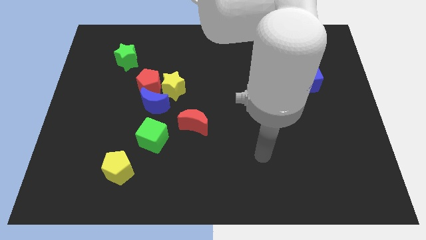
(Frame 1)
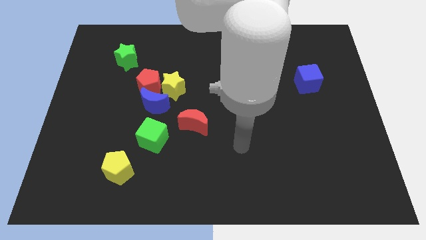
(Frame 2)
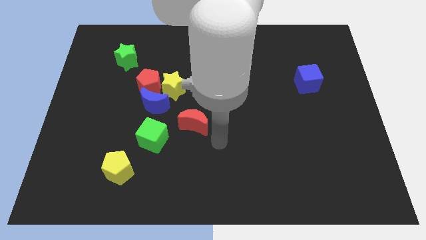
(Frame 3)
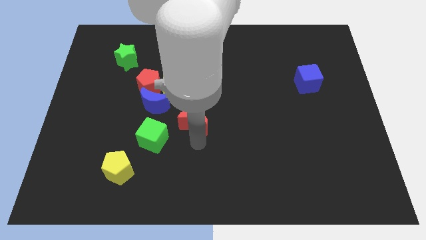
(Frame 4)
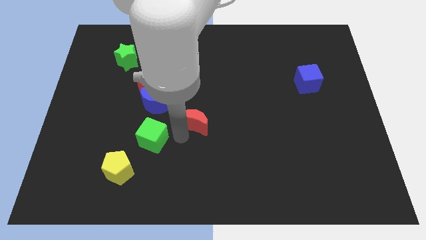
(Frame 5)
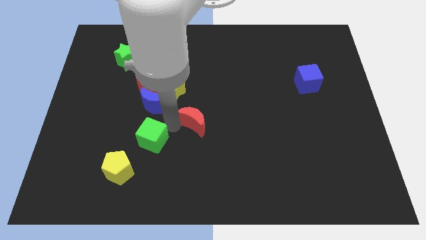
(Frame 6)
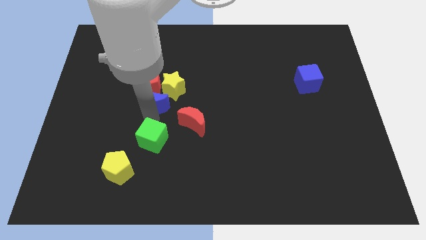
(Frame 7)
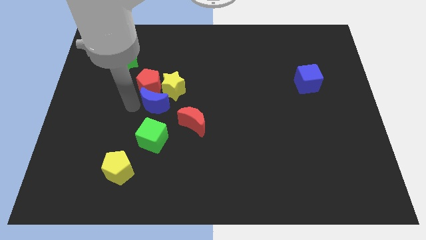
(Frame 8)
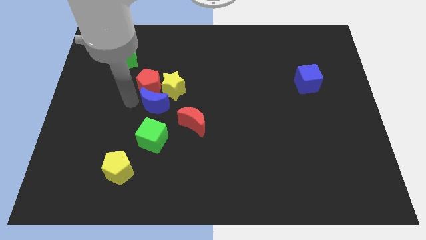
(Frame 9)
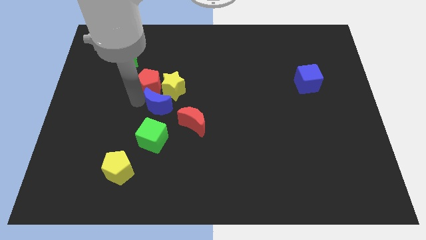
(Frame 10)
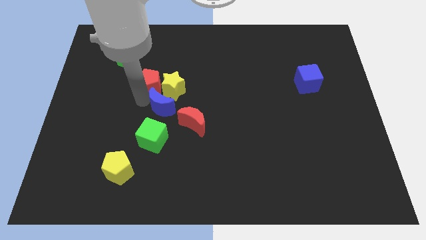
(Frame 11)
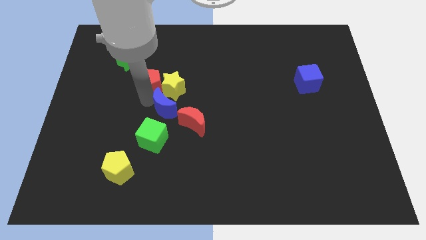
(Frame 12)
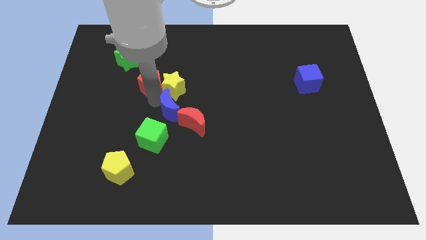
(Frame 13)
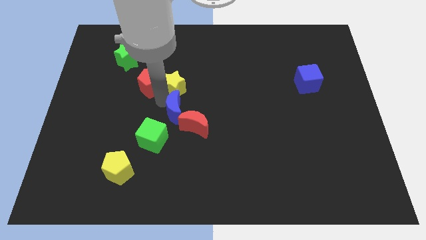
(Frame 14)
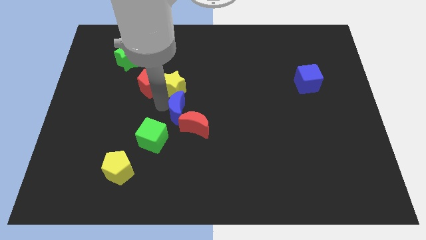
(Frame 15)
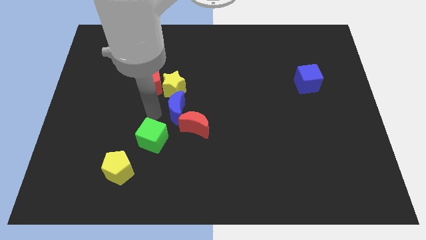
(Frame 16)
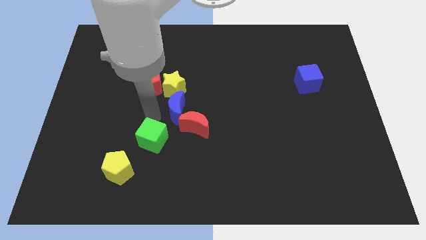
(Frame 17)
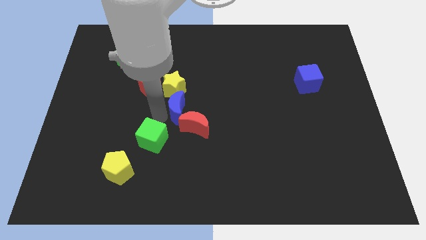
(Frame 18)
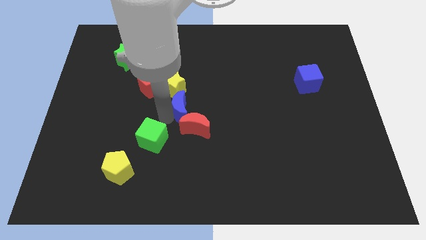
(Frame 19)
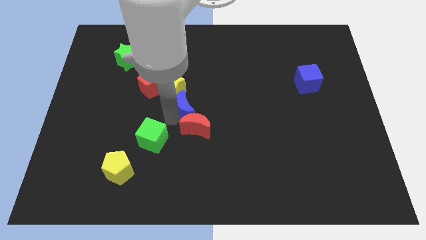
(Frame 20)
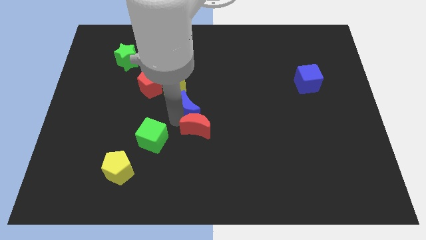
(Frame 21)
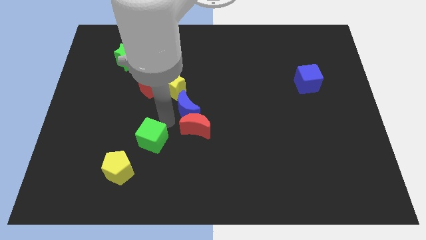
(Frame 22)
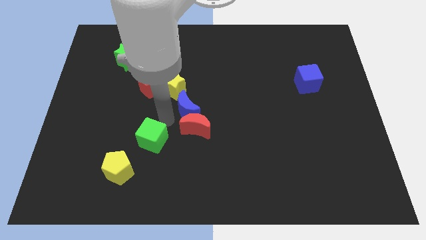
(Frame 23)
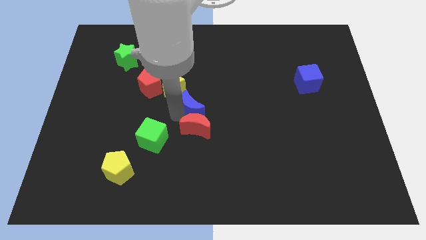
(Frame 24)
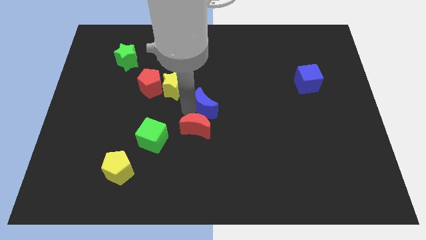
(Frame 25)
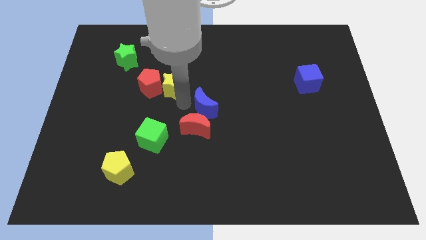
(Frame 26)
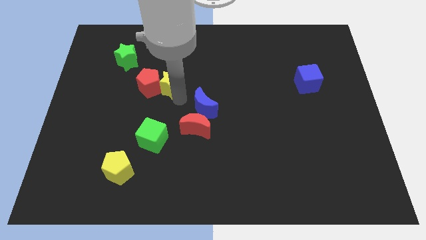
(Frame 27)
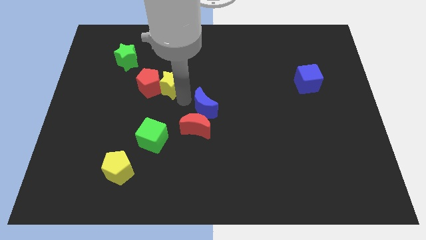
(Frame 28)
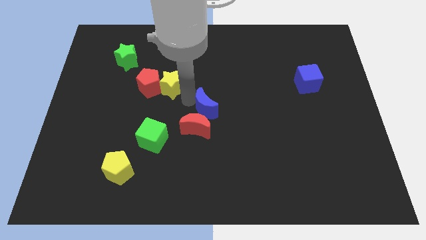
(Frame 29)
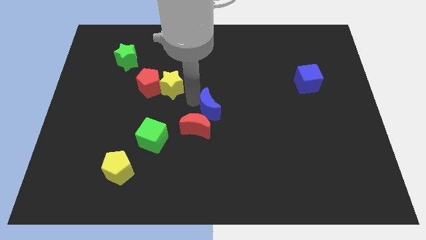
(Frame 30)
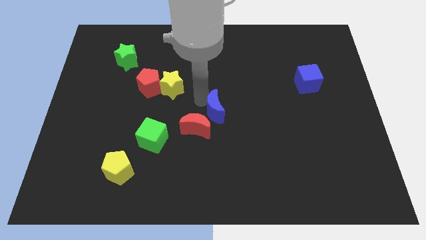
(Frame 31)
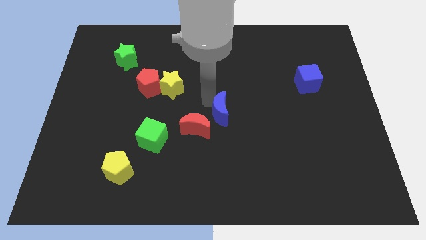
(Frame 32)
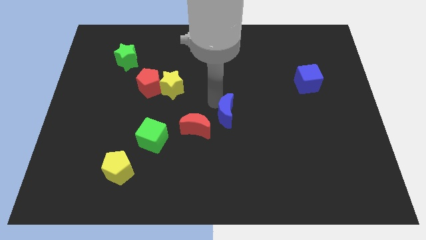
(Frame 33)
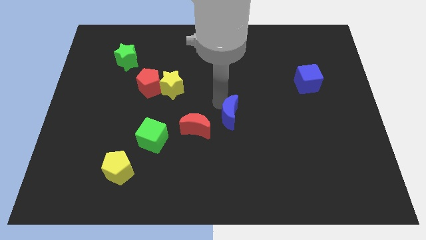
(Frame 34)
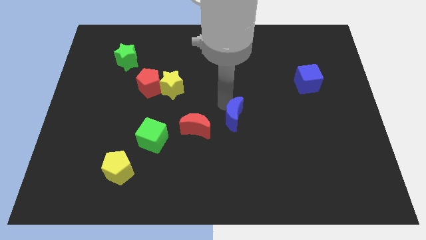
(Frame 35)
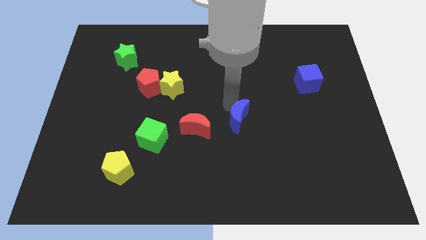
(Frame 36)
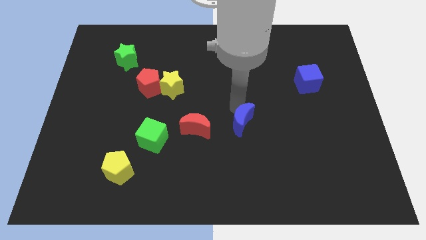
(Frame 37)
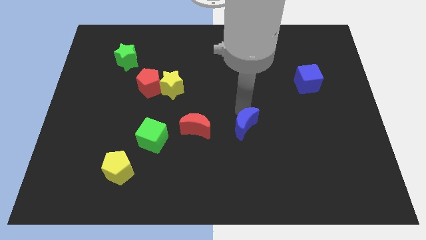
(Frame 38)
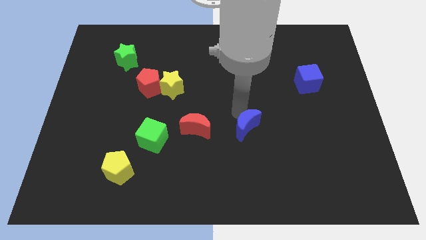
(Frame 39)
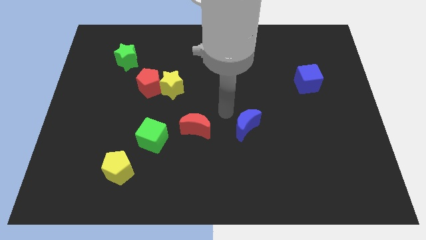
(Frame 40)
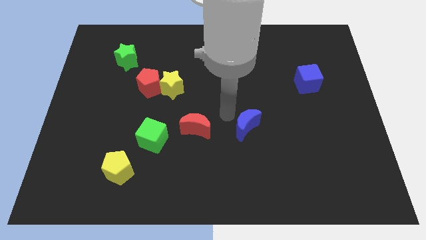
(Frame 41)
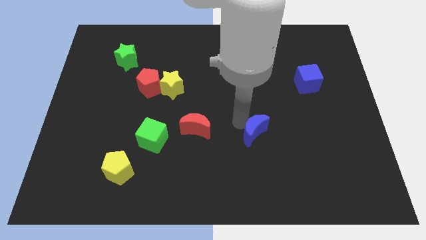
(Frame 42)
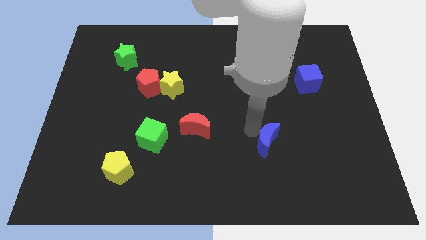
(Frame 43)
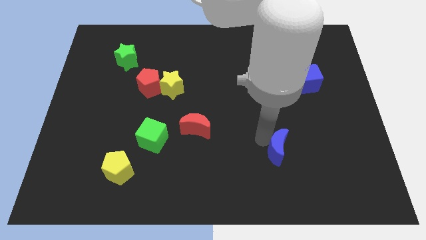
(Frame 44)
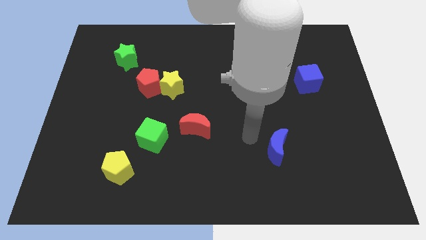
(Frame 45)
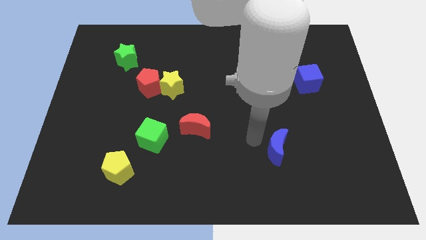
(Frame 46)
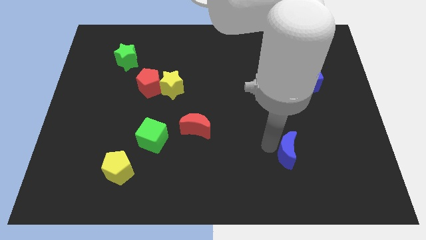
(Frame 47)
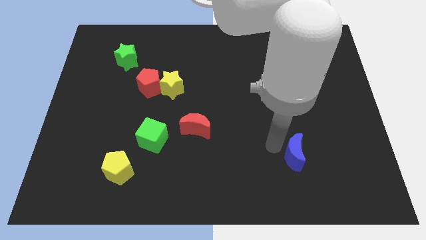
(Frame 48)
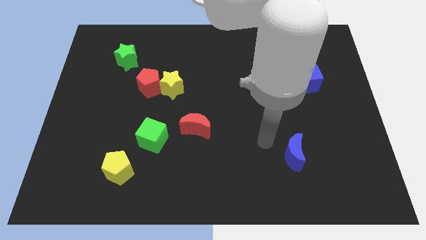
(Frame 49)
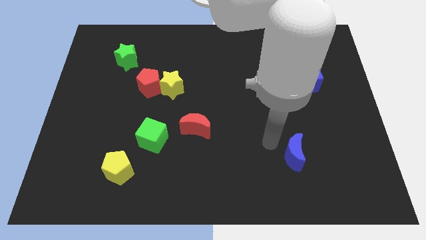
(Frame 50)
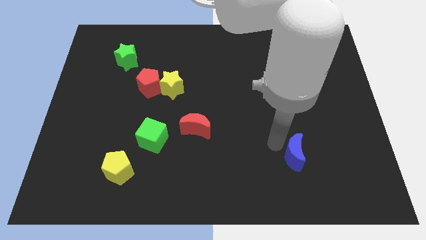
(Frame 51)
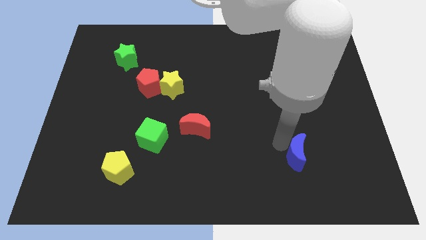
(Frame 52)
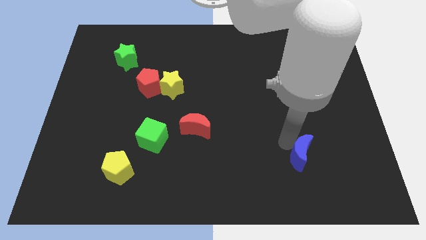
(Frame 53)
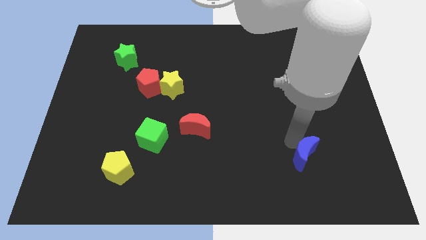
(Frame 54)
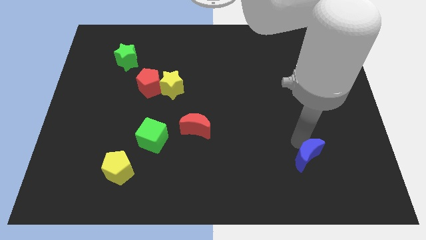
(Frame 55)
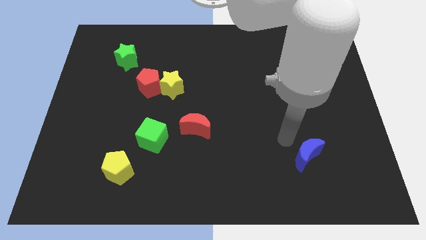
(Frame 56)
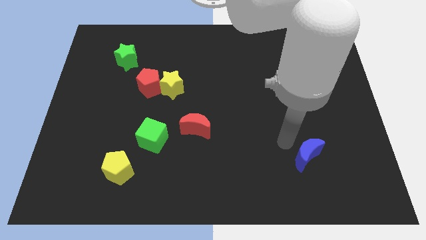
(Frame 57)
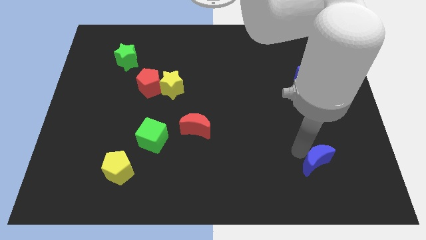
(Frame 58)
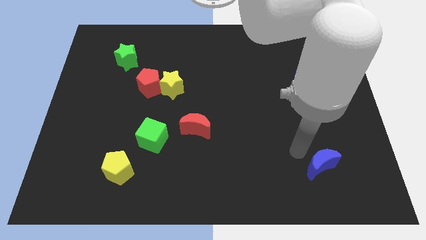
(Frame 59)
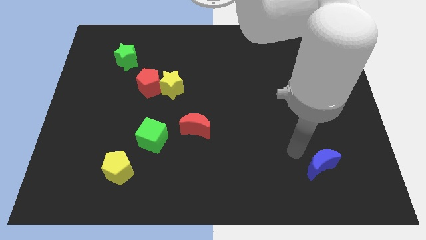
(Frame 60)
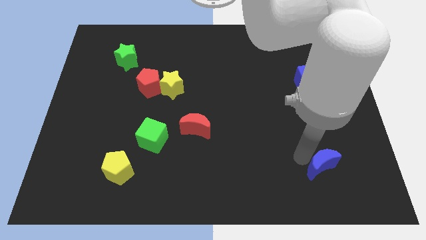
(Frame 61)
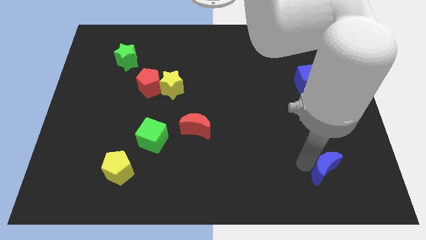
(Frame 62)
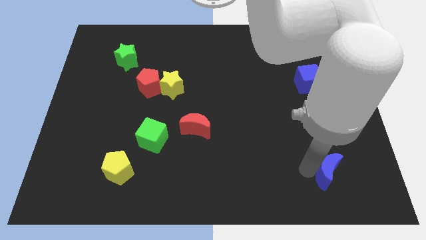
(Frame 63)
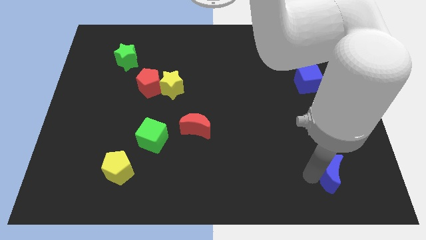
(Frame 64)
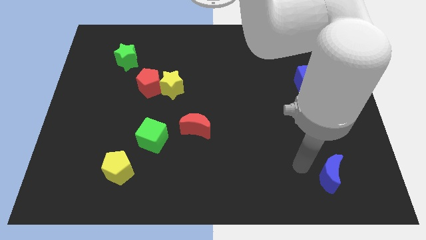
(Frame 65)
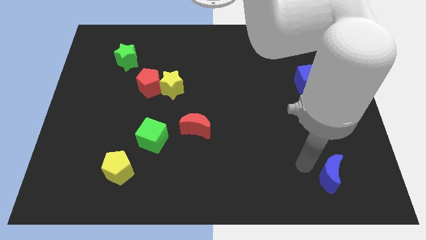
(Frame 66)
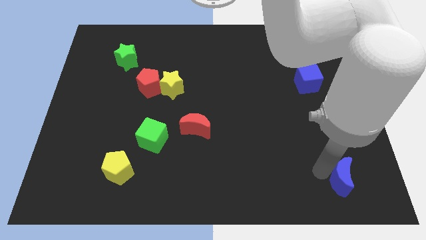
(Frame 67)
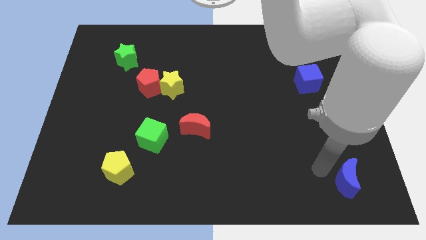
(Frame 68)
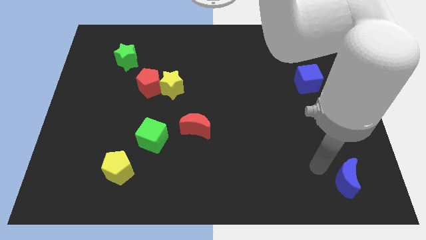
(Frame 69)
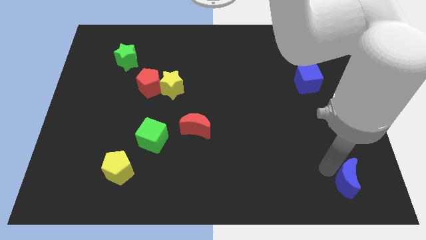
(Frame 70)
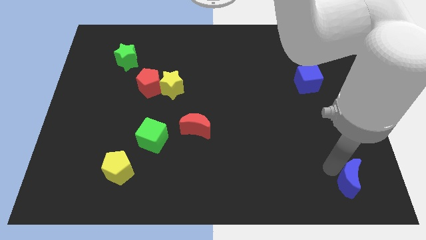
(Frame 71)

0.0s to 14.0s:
put the blue moon to the bottom right corner
